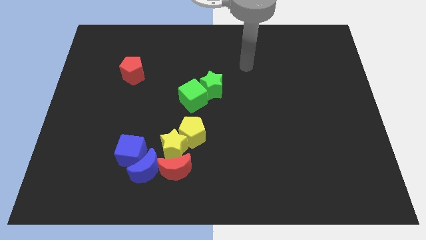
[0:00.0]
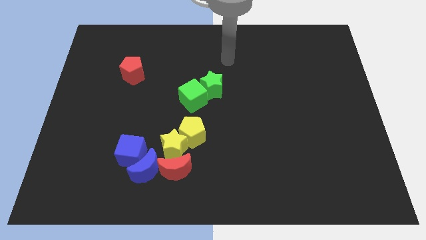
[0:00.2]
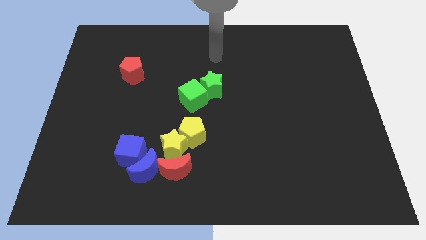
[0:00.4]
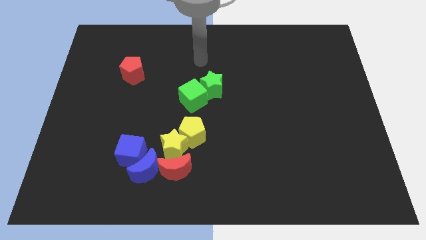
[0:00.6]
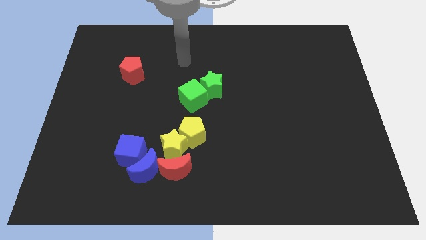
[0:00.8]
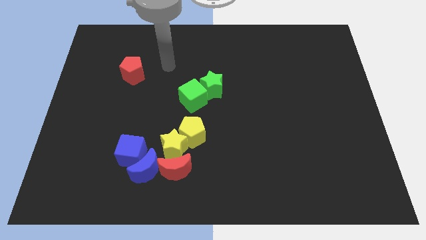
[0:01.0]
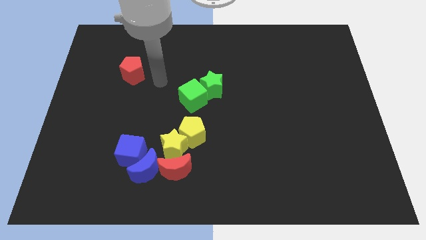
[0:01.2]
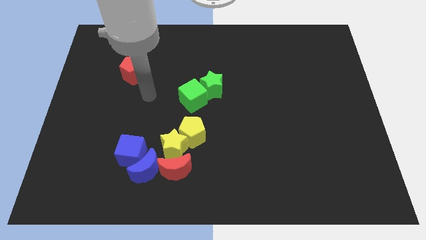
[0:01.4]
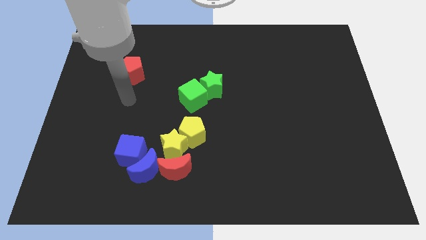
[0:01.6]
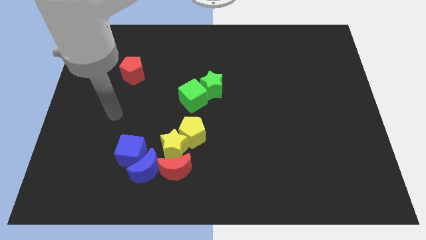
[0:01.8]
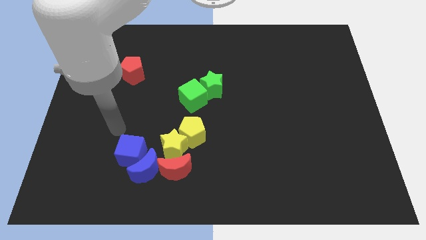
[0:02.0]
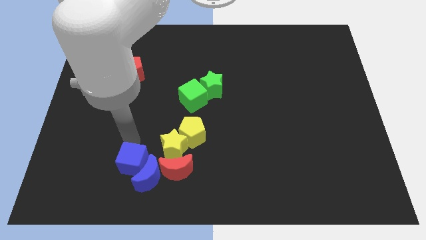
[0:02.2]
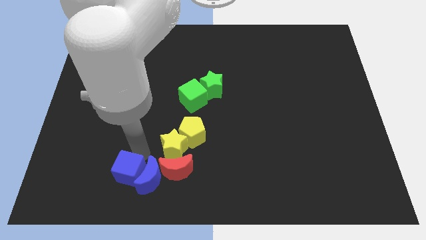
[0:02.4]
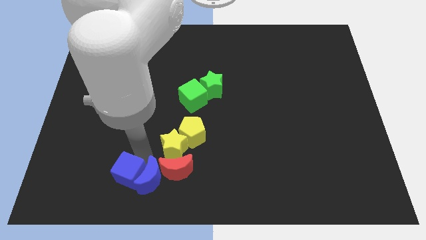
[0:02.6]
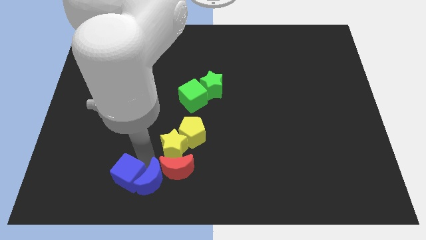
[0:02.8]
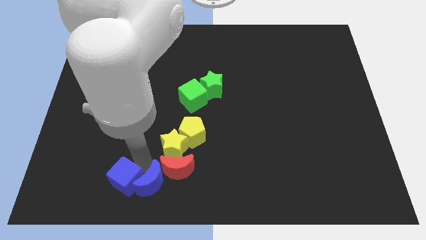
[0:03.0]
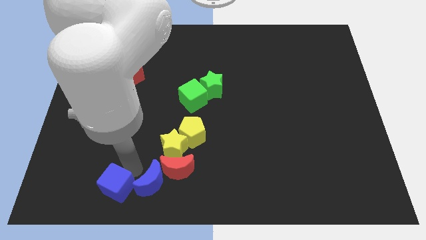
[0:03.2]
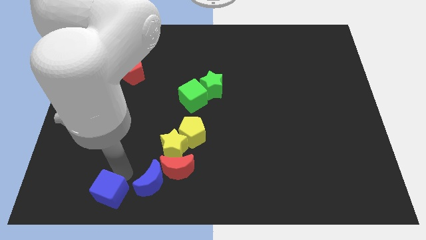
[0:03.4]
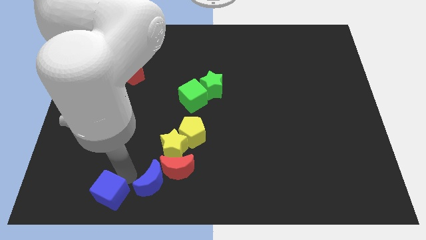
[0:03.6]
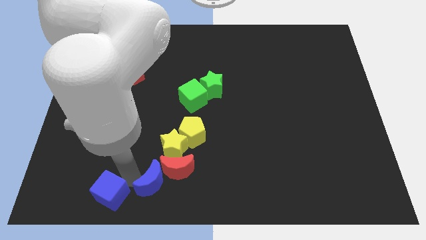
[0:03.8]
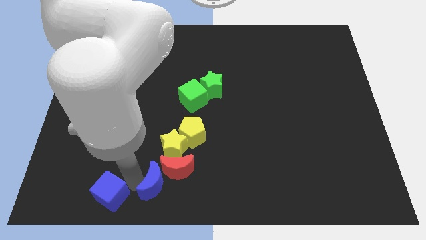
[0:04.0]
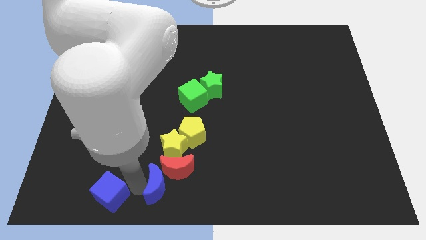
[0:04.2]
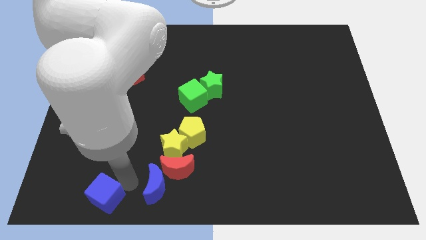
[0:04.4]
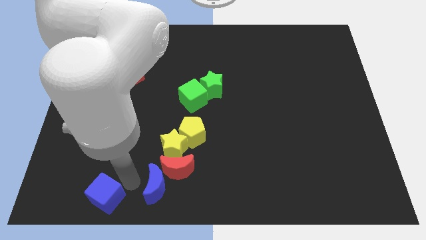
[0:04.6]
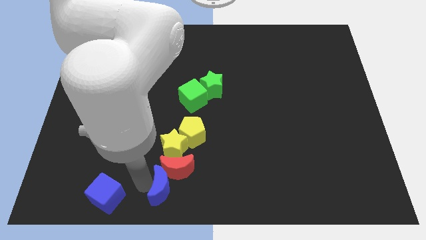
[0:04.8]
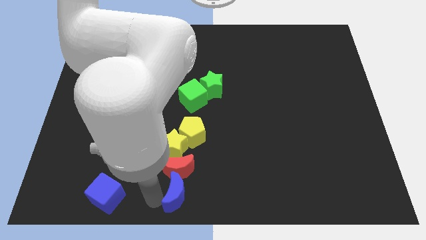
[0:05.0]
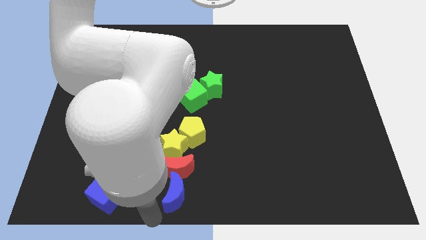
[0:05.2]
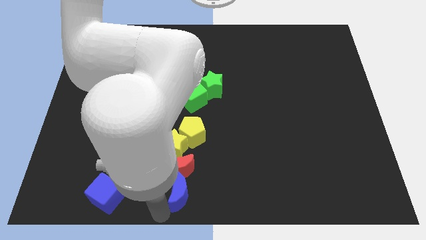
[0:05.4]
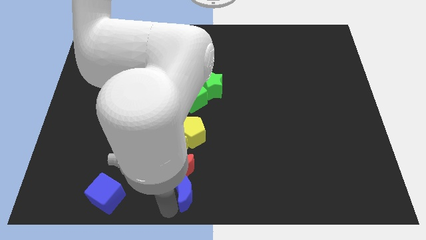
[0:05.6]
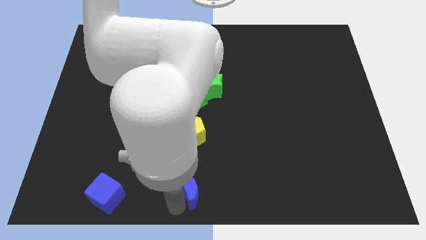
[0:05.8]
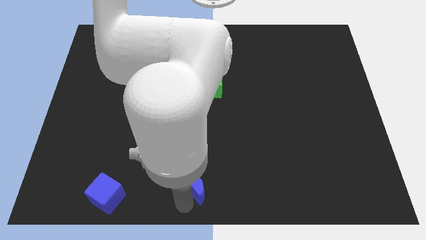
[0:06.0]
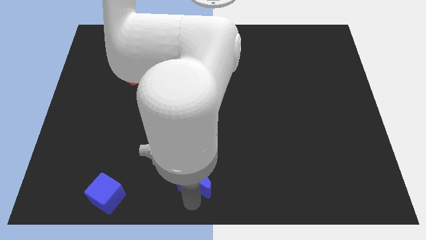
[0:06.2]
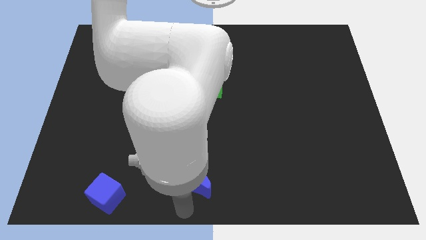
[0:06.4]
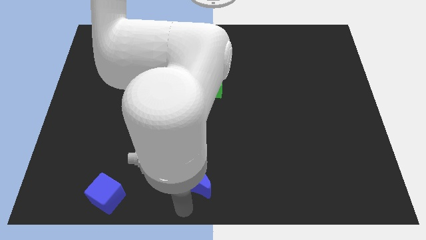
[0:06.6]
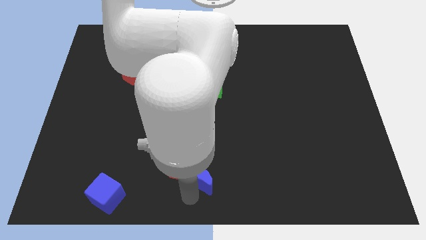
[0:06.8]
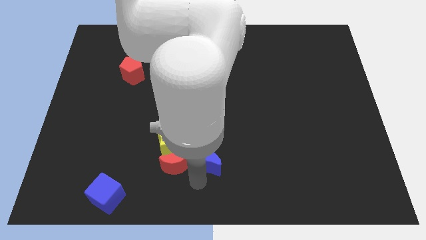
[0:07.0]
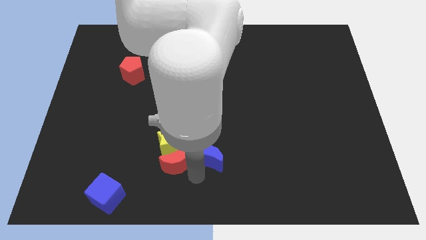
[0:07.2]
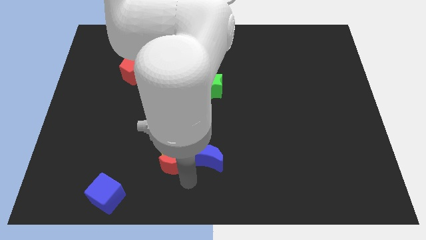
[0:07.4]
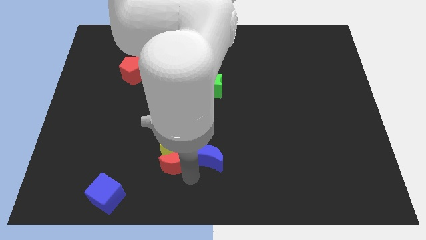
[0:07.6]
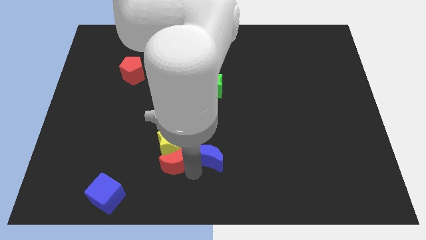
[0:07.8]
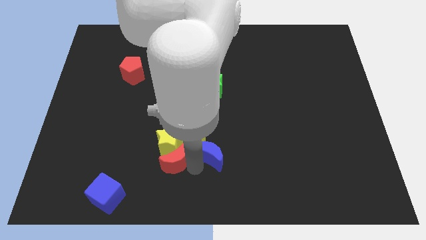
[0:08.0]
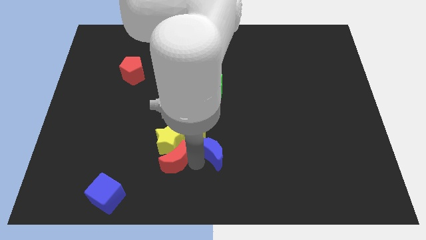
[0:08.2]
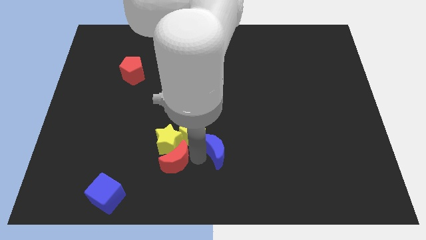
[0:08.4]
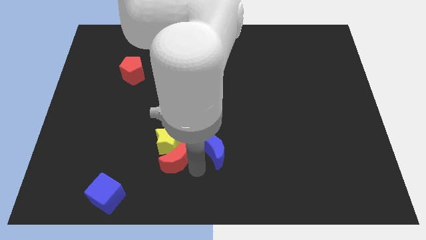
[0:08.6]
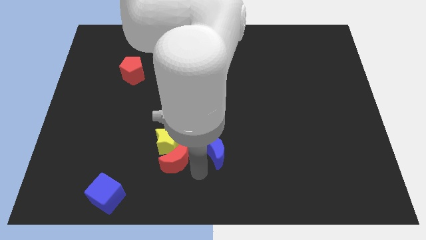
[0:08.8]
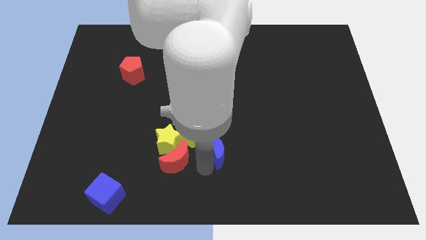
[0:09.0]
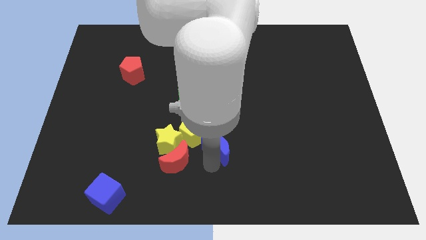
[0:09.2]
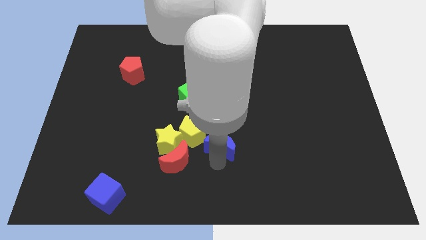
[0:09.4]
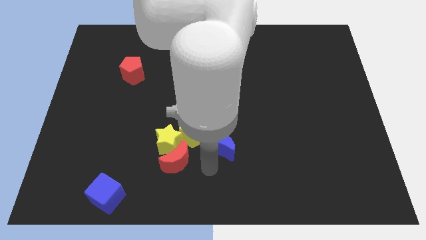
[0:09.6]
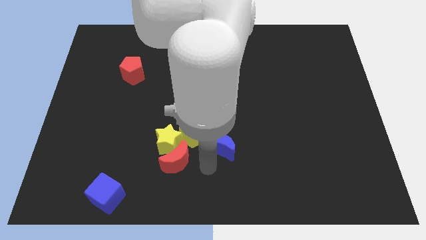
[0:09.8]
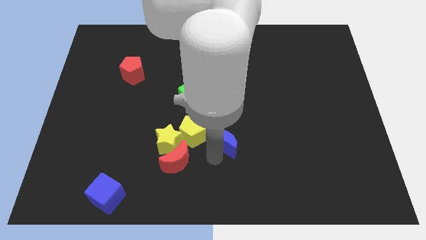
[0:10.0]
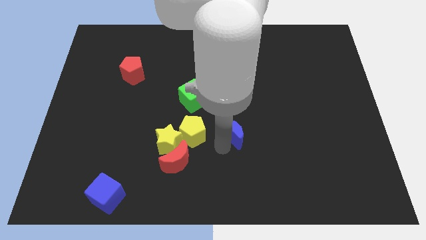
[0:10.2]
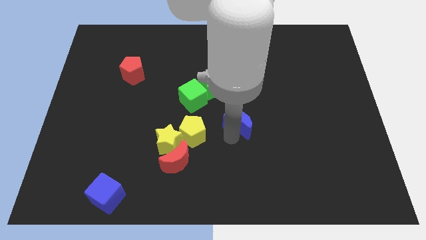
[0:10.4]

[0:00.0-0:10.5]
push the blue moon diagonally up and to the right

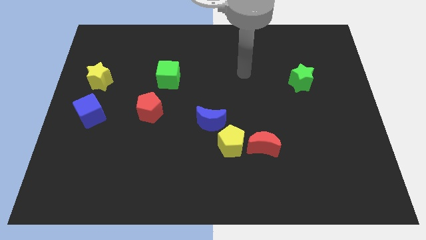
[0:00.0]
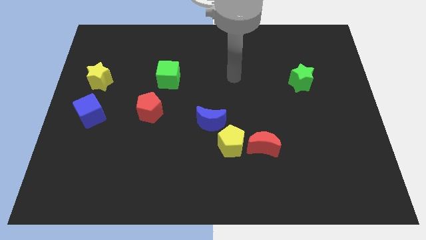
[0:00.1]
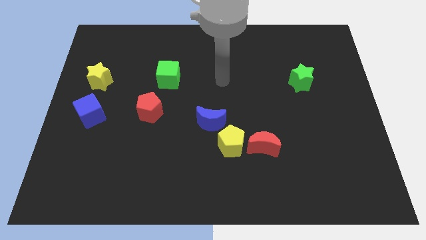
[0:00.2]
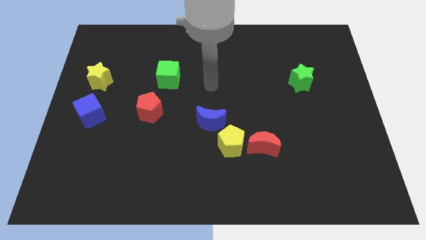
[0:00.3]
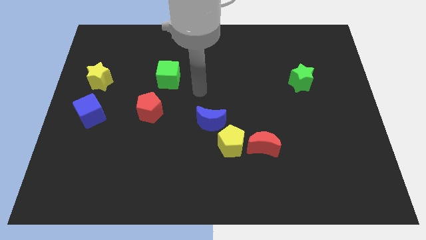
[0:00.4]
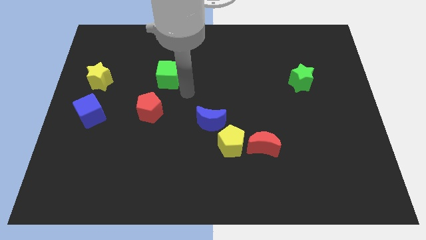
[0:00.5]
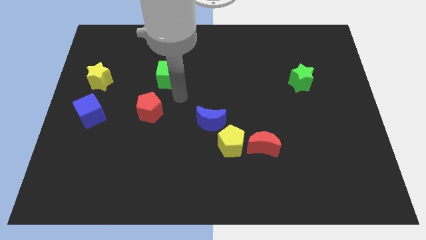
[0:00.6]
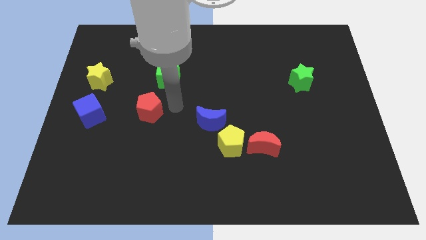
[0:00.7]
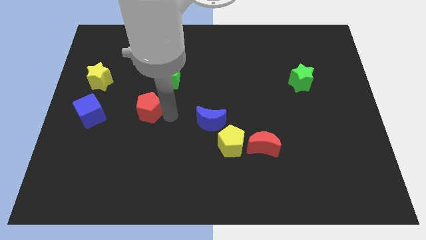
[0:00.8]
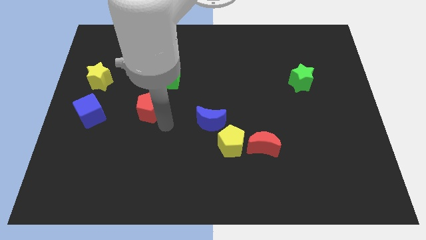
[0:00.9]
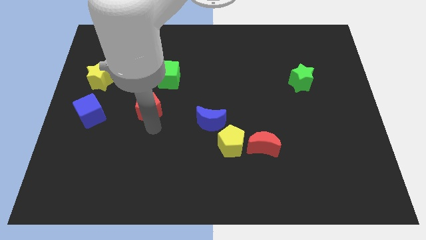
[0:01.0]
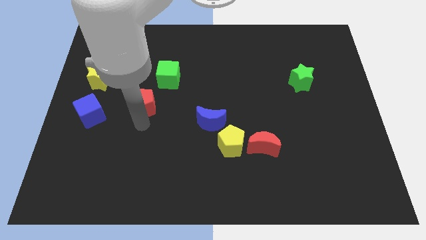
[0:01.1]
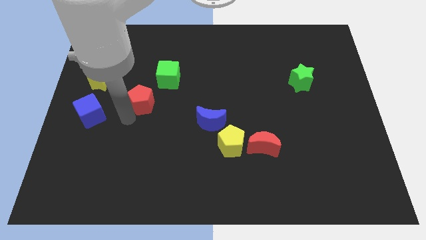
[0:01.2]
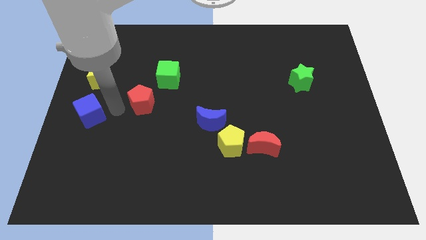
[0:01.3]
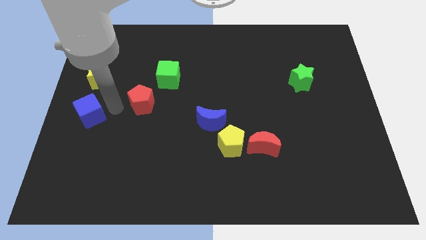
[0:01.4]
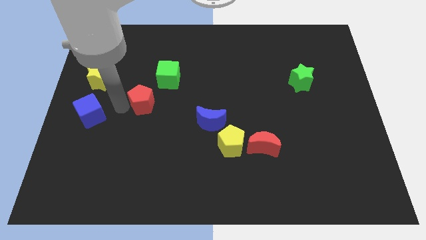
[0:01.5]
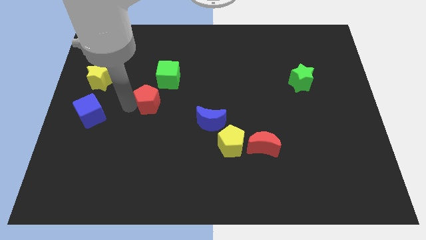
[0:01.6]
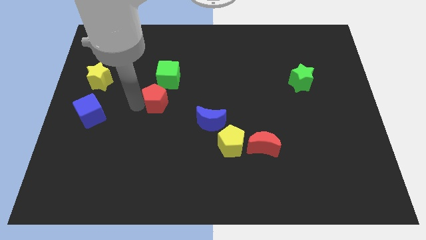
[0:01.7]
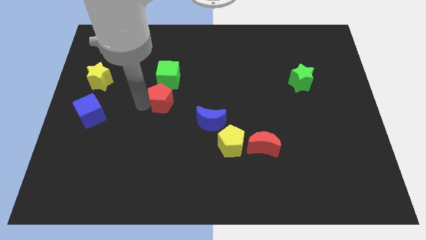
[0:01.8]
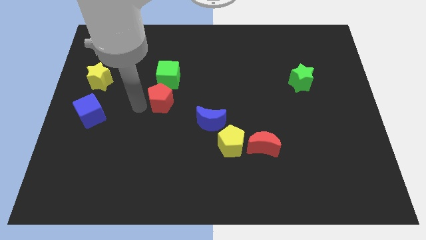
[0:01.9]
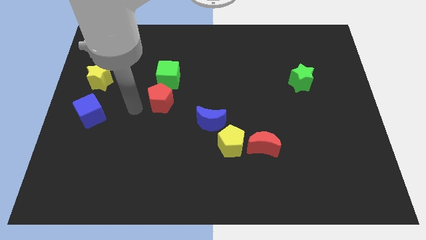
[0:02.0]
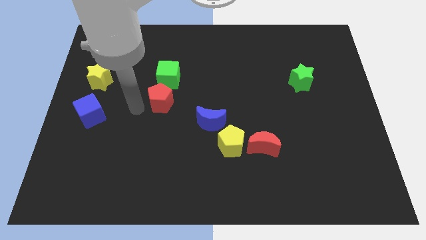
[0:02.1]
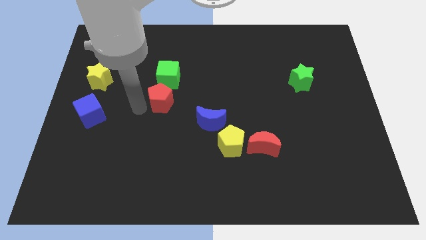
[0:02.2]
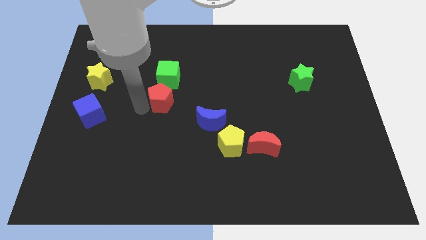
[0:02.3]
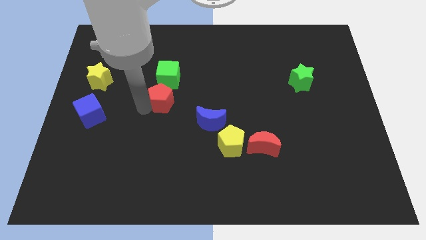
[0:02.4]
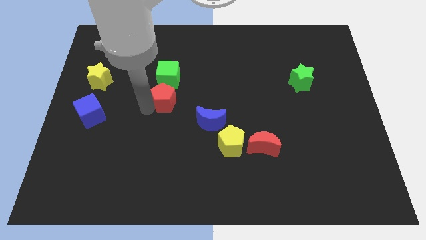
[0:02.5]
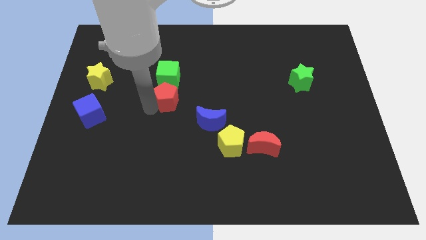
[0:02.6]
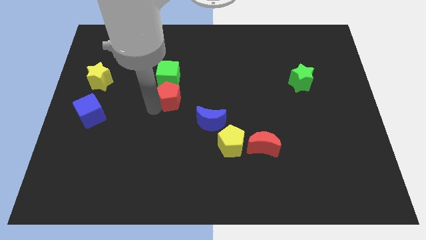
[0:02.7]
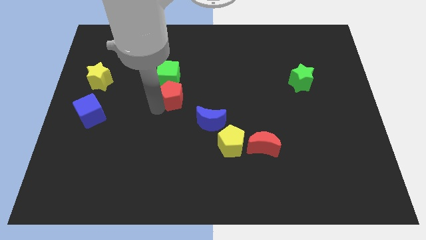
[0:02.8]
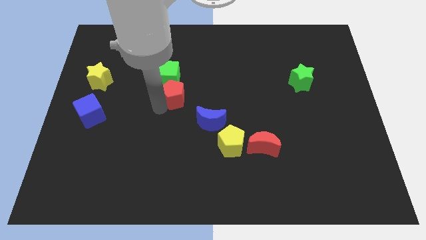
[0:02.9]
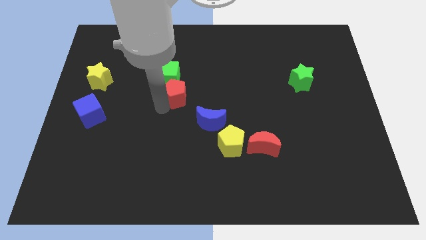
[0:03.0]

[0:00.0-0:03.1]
push the red pentagon up and to the right a bit
